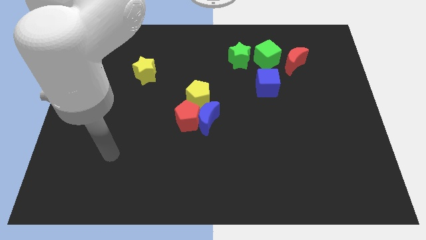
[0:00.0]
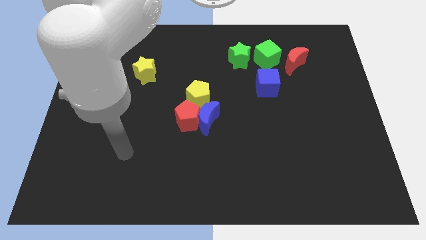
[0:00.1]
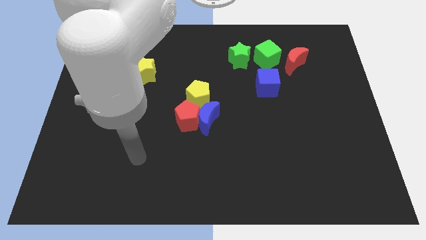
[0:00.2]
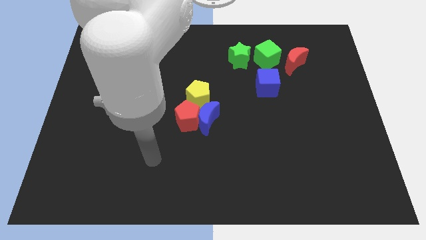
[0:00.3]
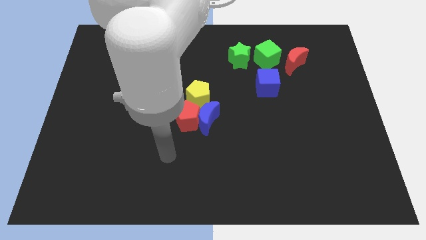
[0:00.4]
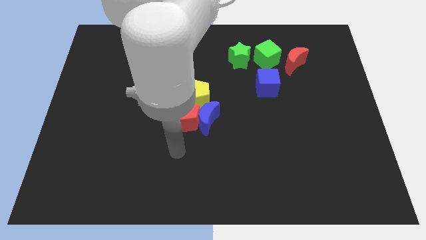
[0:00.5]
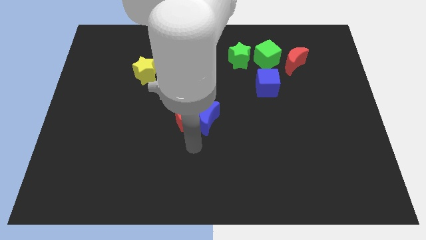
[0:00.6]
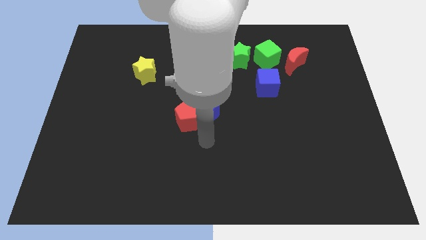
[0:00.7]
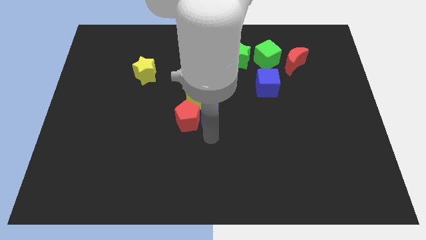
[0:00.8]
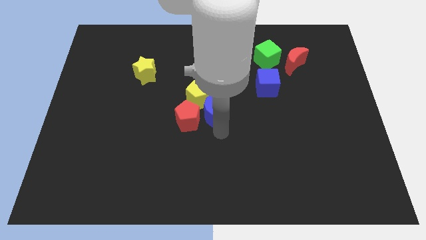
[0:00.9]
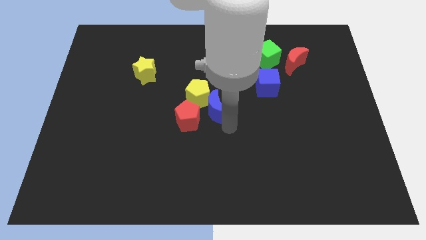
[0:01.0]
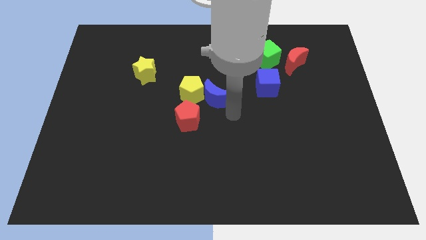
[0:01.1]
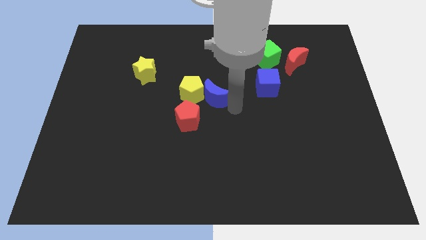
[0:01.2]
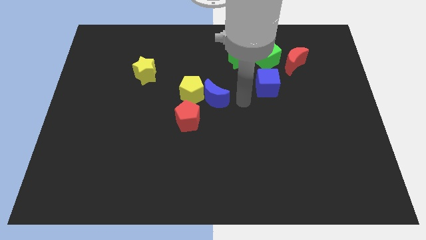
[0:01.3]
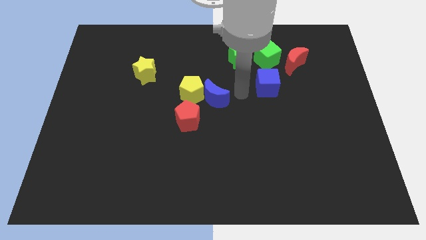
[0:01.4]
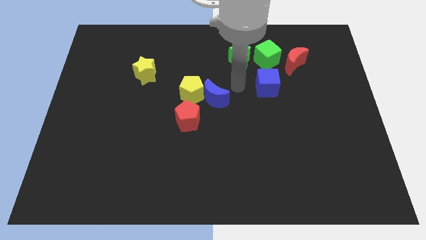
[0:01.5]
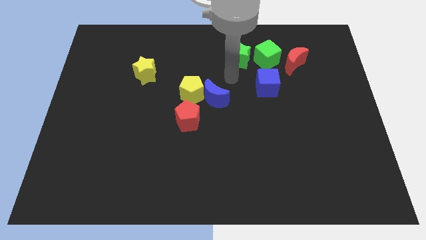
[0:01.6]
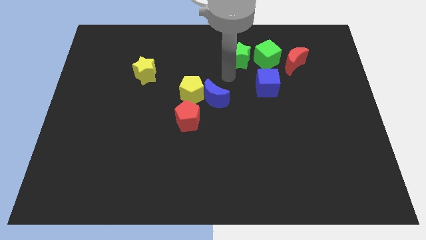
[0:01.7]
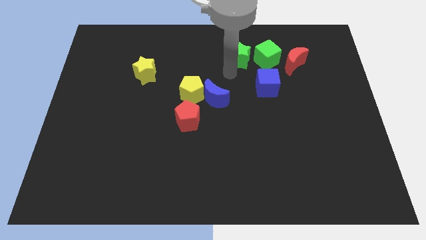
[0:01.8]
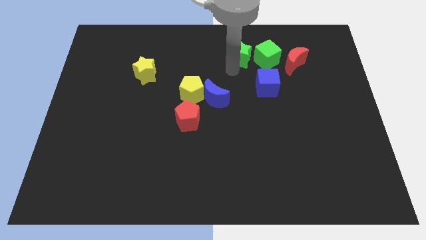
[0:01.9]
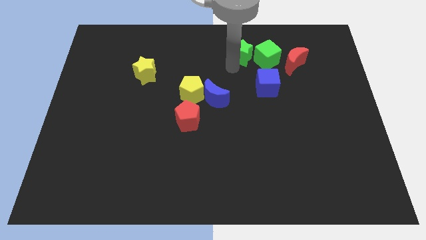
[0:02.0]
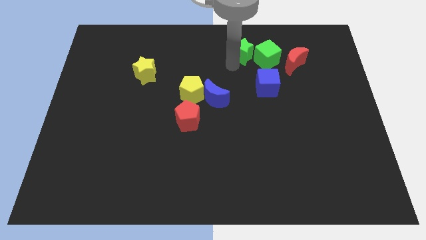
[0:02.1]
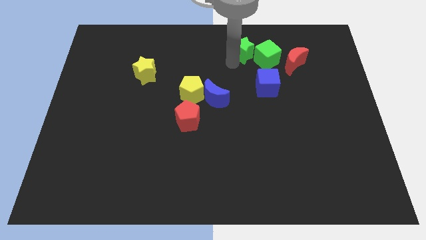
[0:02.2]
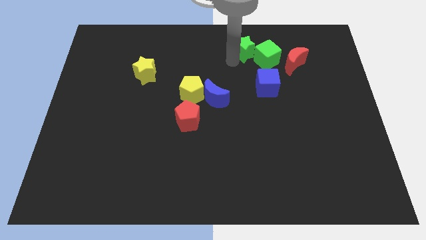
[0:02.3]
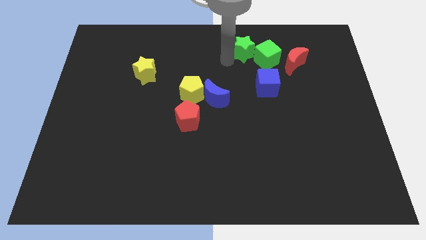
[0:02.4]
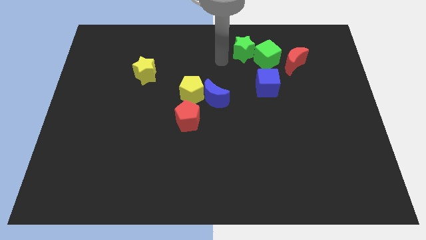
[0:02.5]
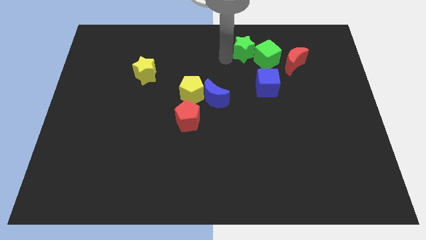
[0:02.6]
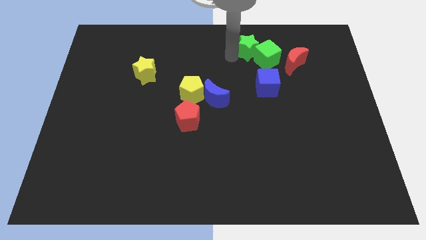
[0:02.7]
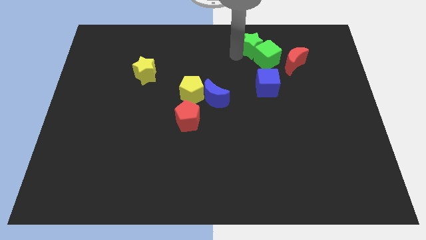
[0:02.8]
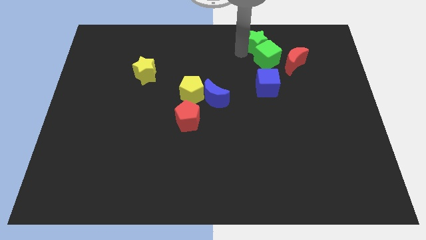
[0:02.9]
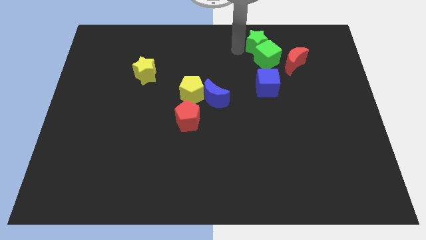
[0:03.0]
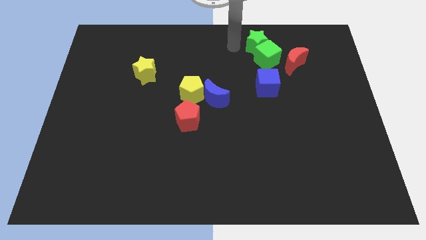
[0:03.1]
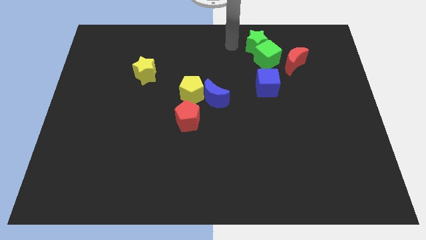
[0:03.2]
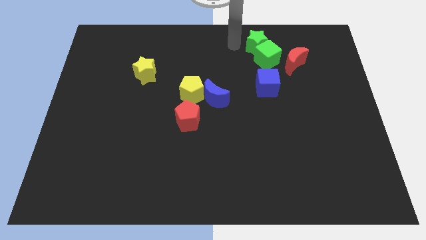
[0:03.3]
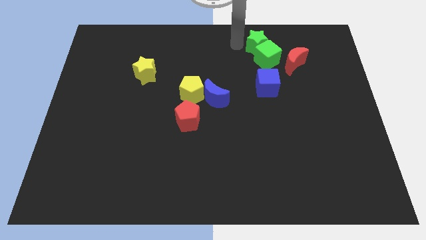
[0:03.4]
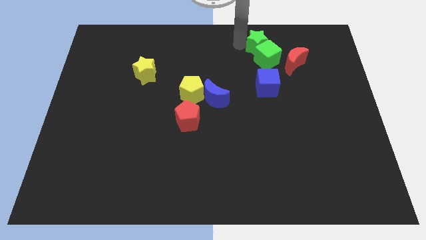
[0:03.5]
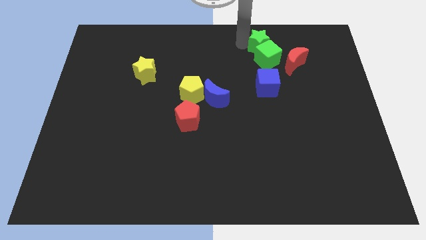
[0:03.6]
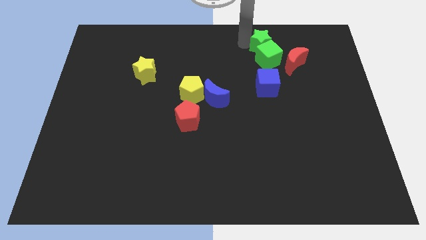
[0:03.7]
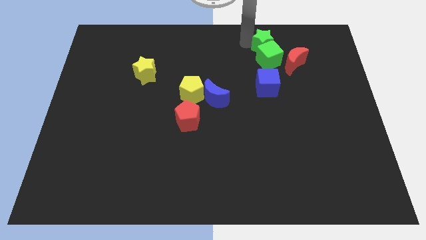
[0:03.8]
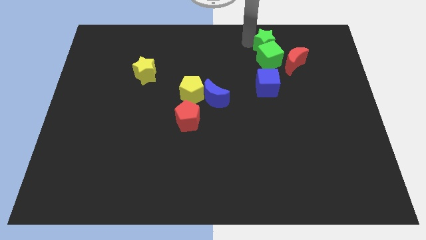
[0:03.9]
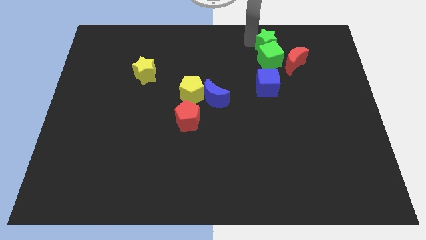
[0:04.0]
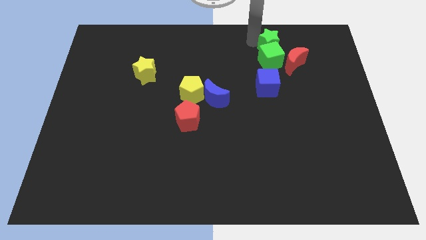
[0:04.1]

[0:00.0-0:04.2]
slightly move the green star right

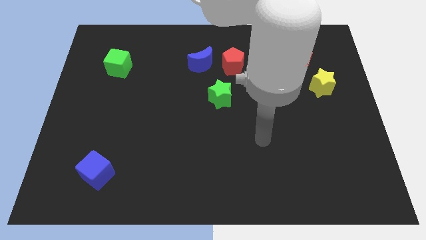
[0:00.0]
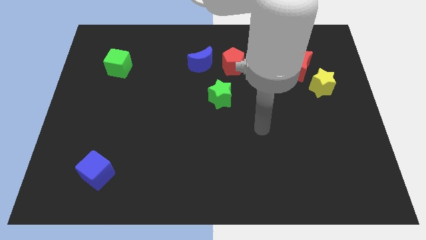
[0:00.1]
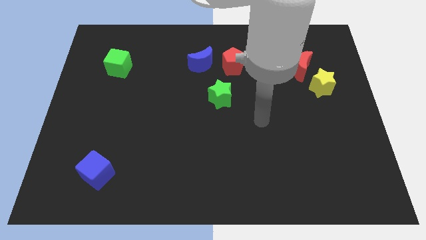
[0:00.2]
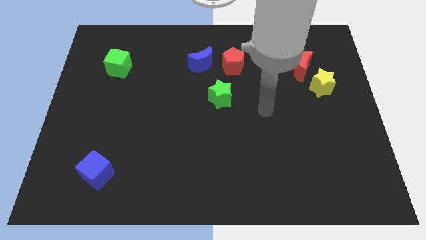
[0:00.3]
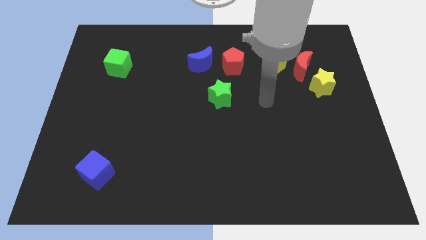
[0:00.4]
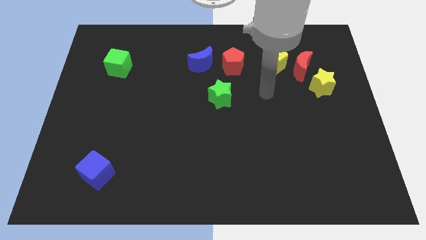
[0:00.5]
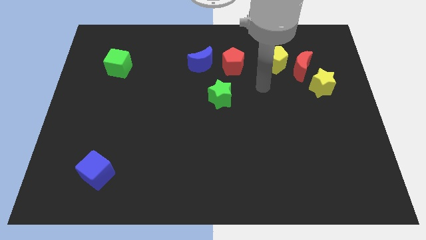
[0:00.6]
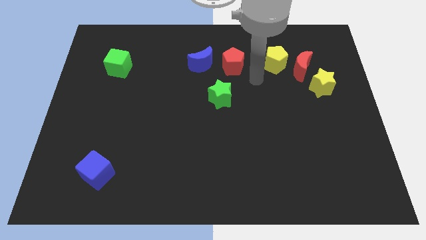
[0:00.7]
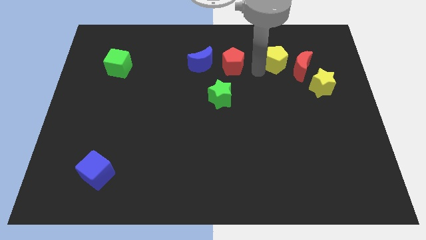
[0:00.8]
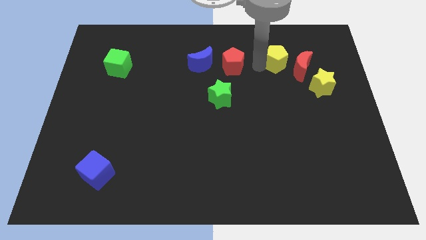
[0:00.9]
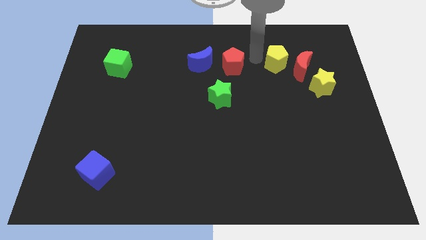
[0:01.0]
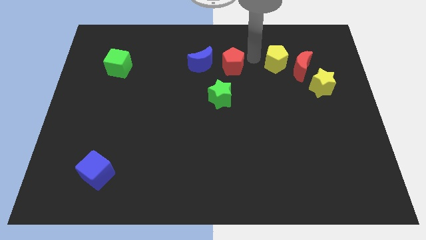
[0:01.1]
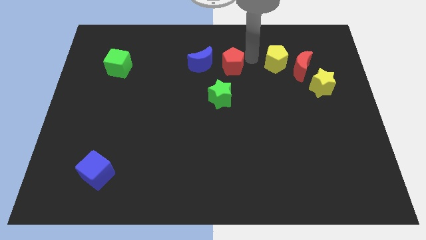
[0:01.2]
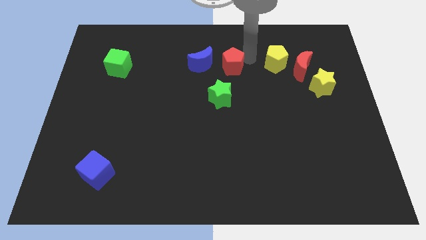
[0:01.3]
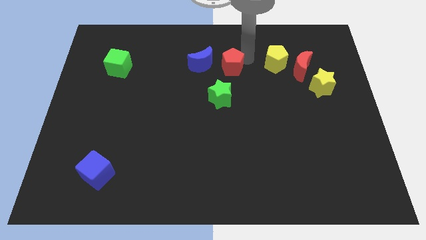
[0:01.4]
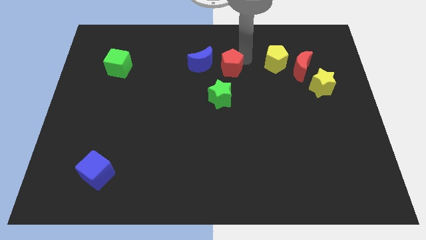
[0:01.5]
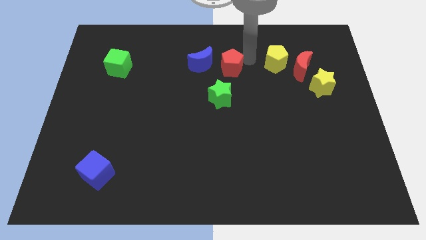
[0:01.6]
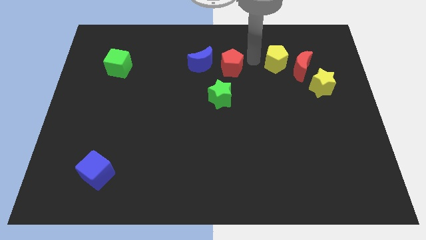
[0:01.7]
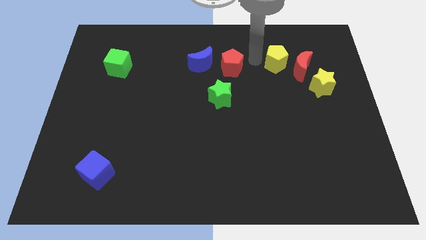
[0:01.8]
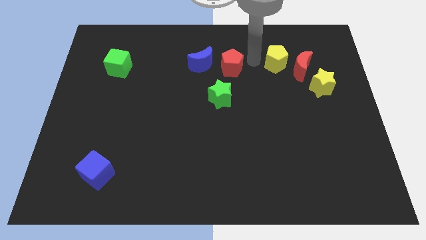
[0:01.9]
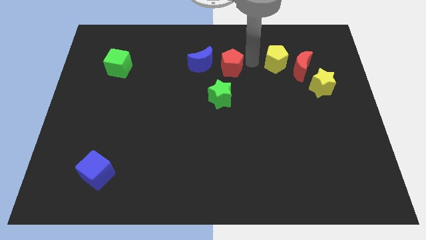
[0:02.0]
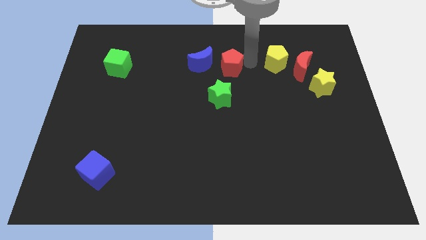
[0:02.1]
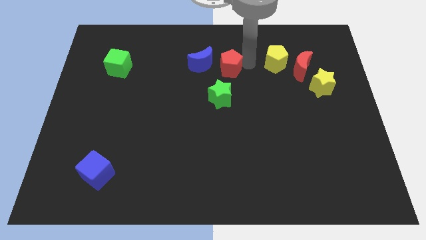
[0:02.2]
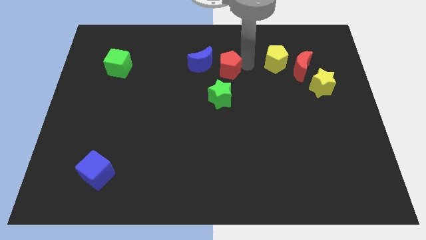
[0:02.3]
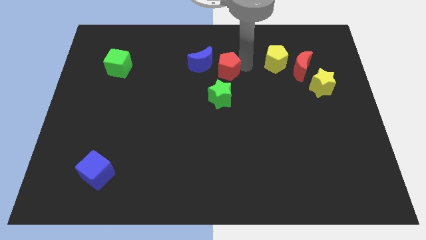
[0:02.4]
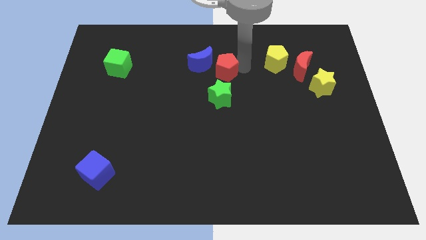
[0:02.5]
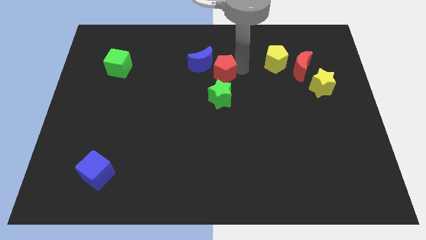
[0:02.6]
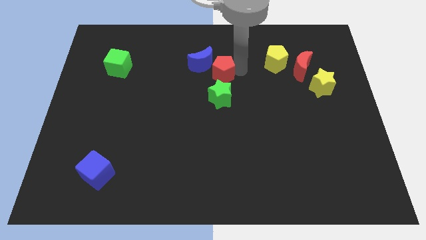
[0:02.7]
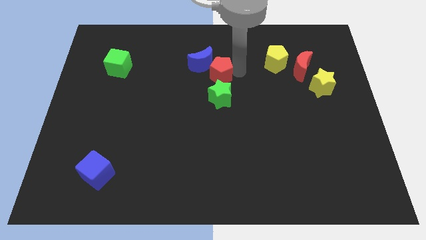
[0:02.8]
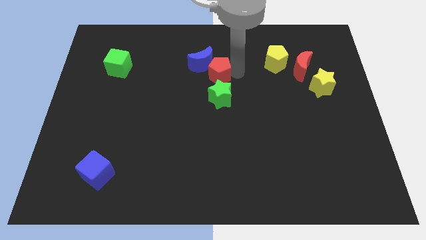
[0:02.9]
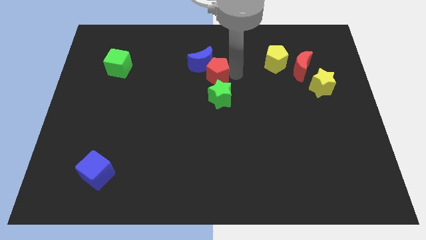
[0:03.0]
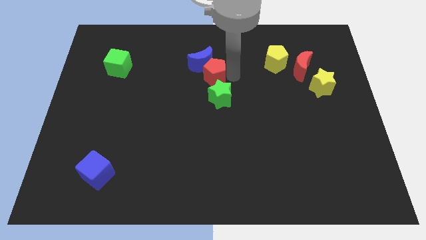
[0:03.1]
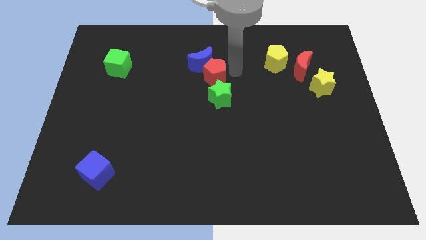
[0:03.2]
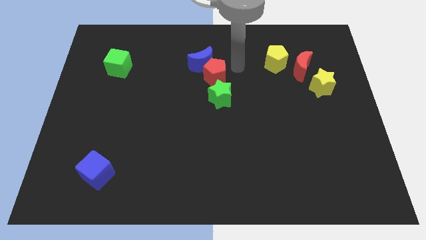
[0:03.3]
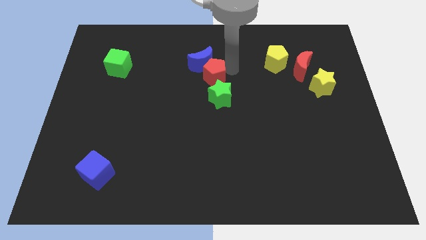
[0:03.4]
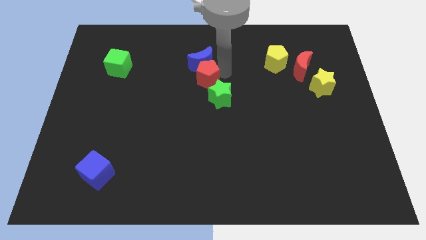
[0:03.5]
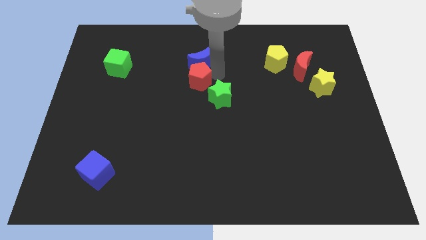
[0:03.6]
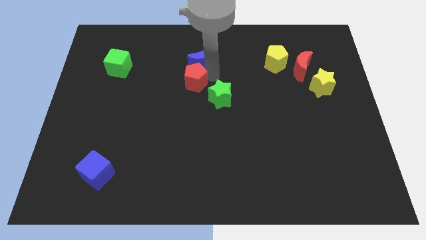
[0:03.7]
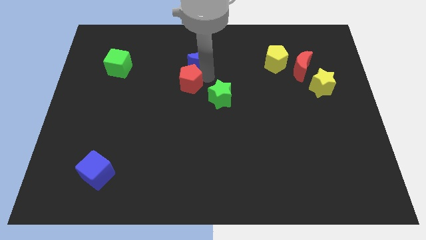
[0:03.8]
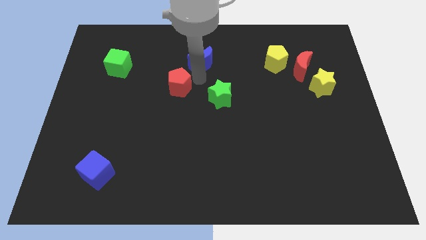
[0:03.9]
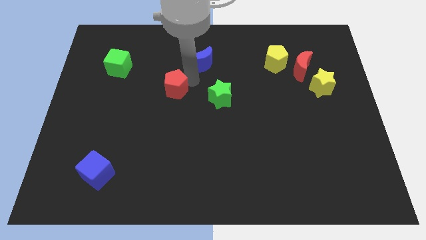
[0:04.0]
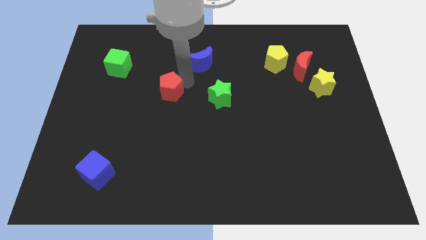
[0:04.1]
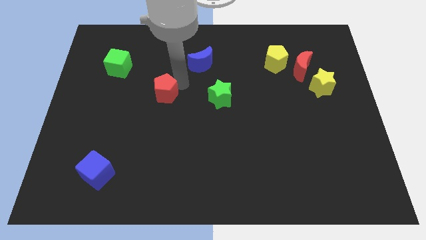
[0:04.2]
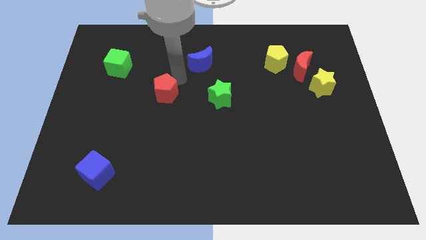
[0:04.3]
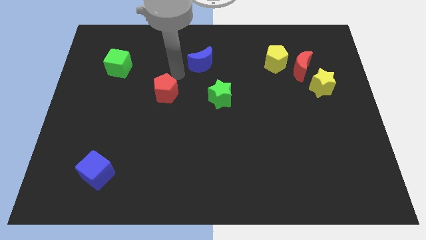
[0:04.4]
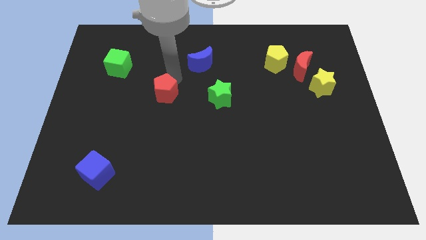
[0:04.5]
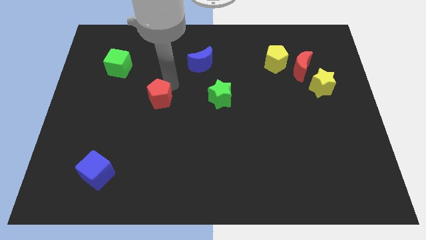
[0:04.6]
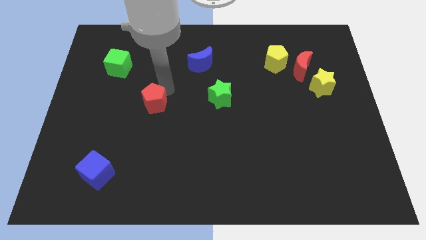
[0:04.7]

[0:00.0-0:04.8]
slide the red pentagon downwards and then to the left
